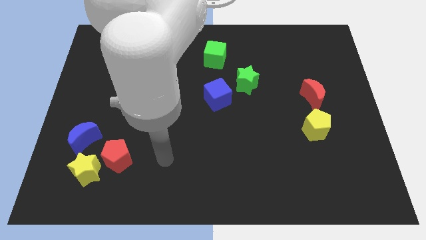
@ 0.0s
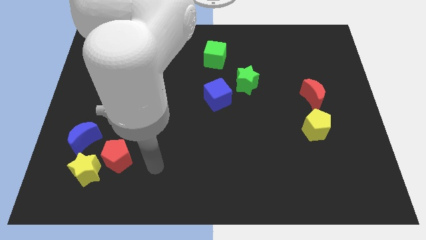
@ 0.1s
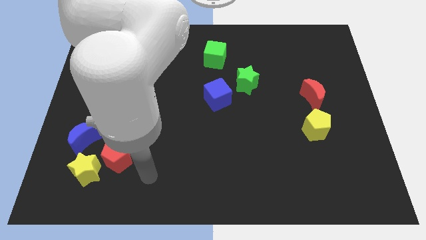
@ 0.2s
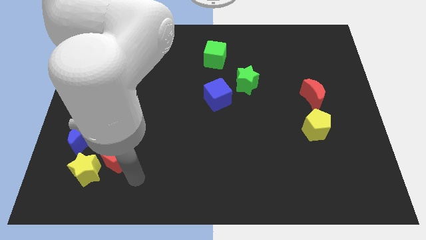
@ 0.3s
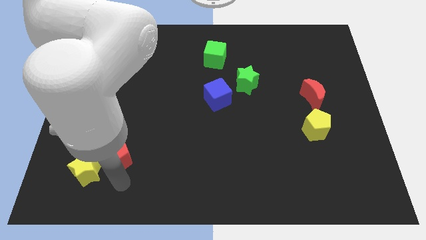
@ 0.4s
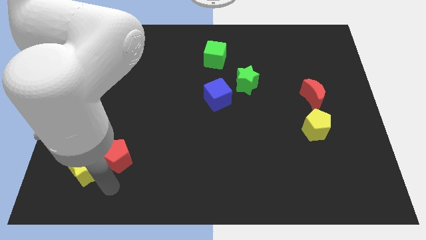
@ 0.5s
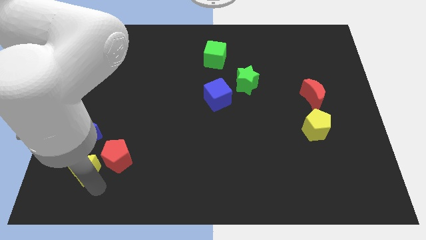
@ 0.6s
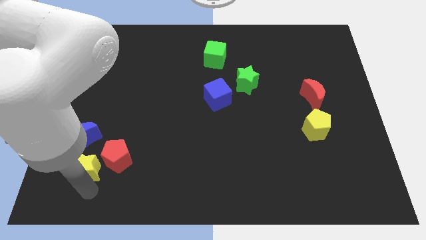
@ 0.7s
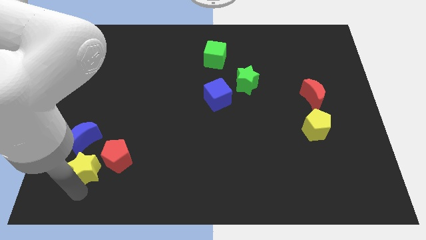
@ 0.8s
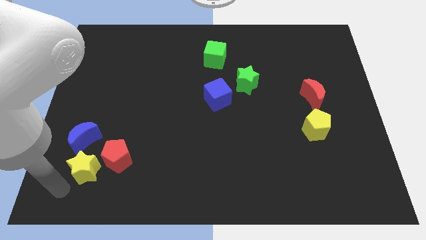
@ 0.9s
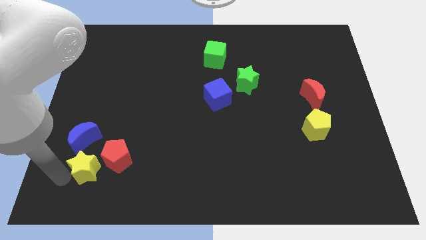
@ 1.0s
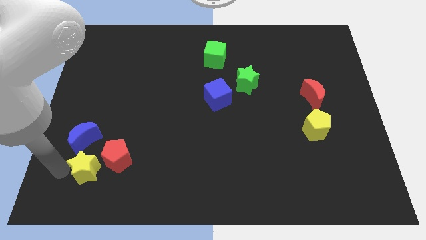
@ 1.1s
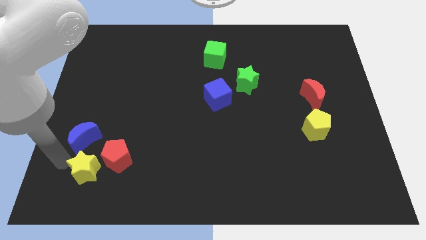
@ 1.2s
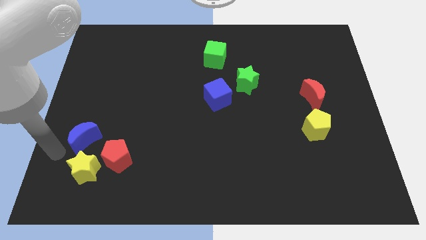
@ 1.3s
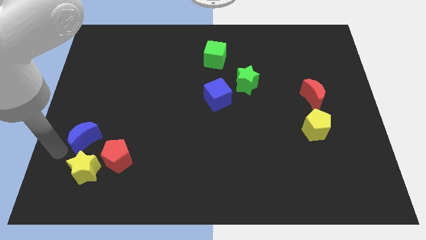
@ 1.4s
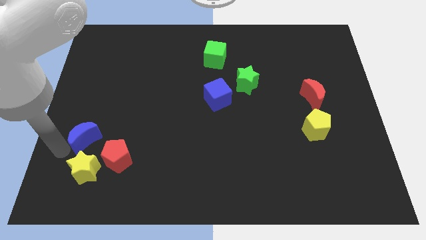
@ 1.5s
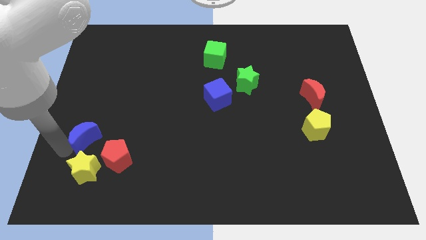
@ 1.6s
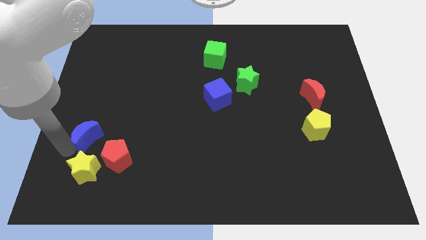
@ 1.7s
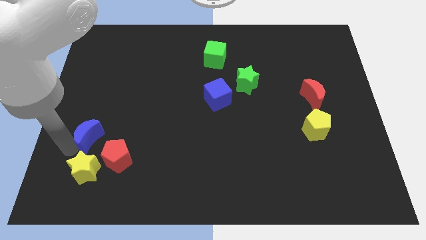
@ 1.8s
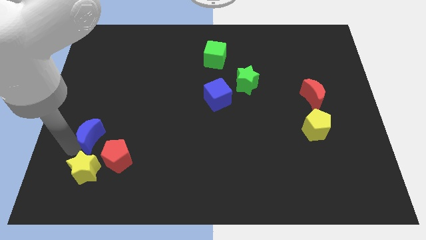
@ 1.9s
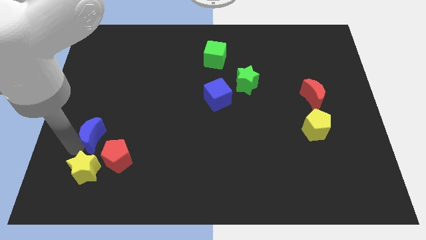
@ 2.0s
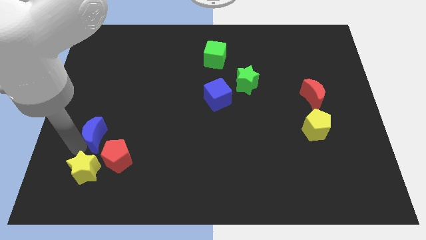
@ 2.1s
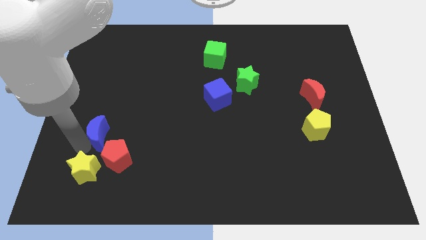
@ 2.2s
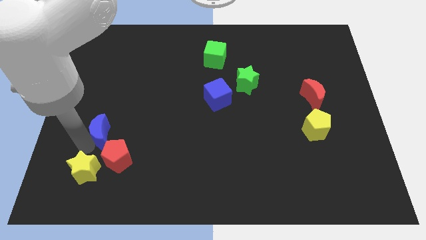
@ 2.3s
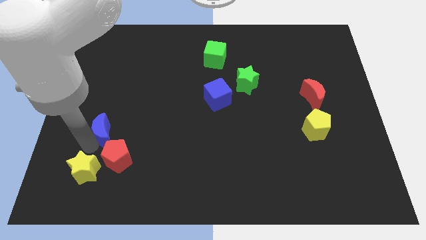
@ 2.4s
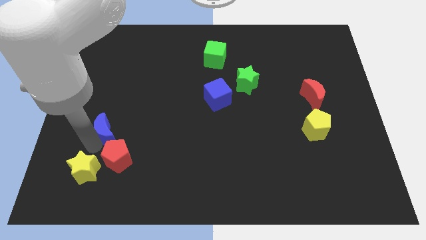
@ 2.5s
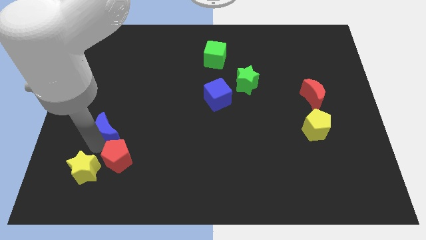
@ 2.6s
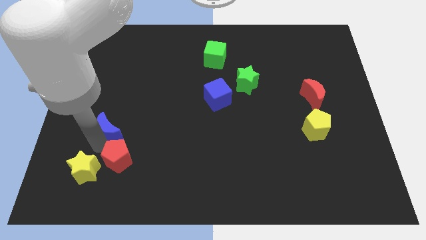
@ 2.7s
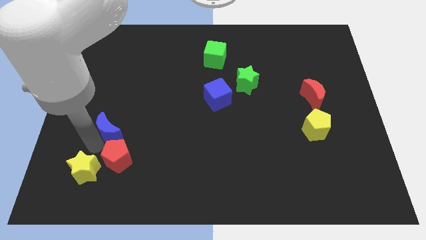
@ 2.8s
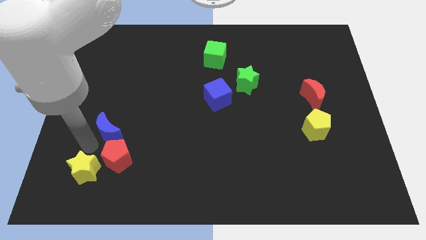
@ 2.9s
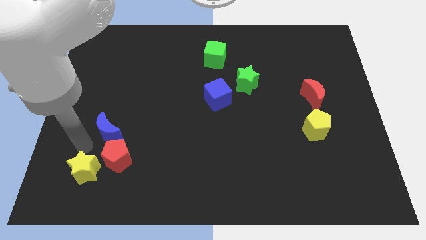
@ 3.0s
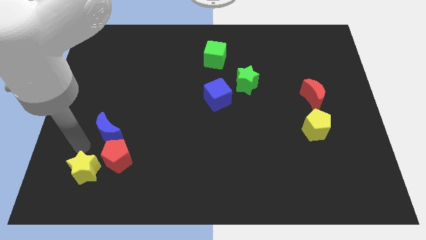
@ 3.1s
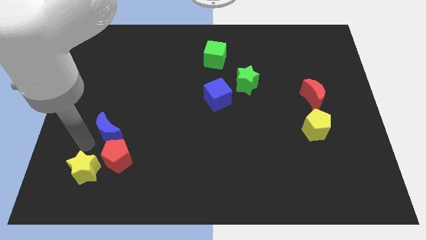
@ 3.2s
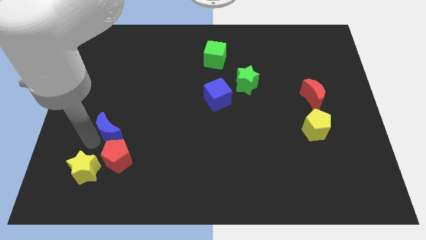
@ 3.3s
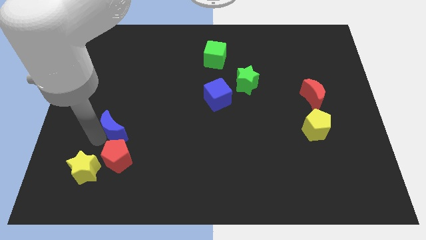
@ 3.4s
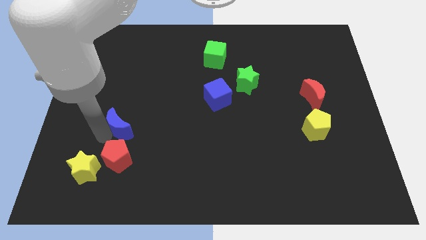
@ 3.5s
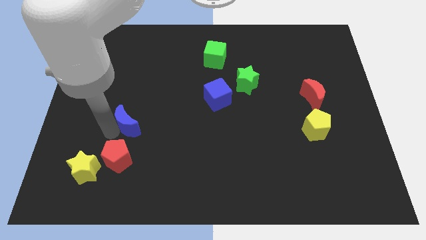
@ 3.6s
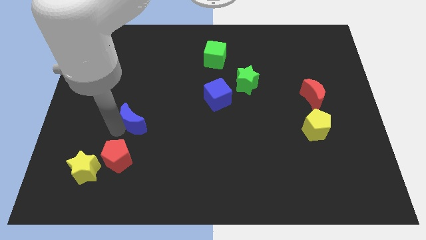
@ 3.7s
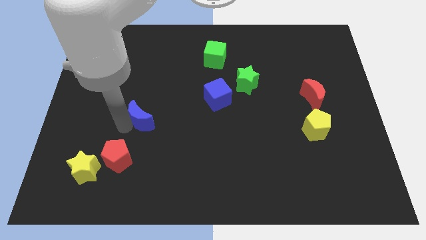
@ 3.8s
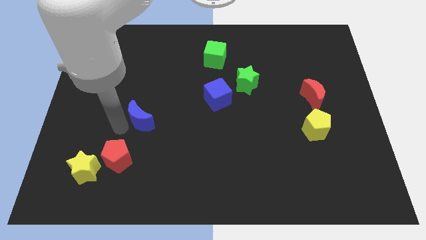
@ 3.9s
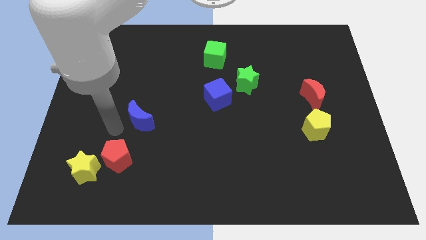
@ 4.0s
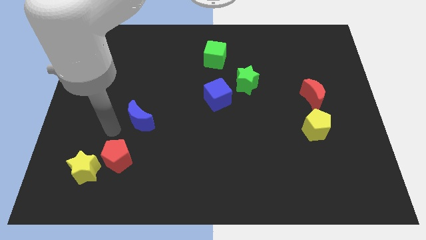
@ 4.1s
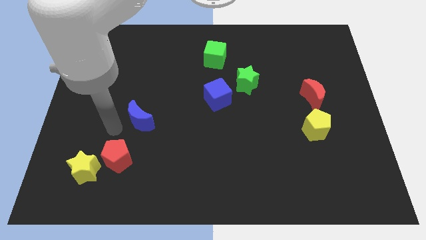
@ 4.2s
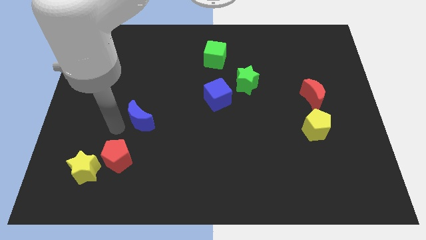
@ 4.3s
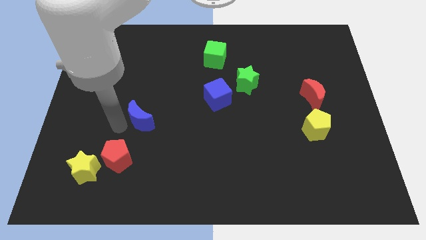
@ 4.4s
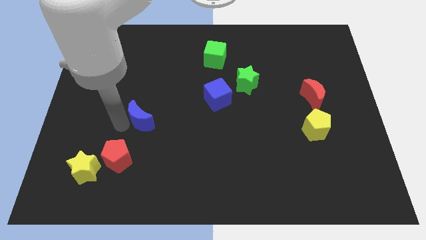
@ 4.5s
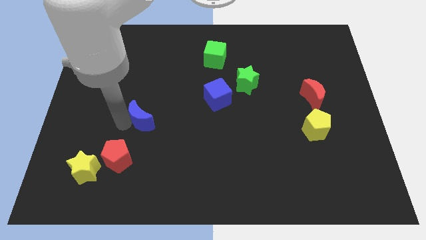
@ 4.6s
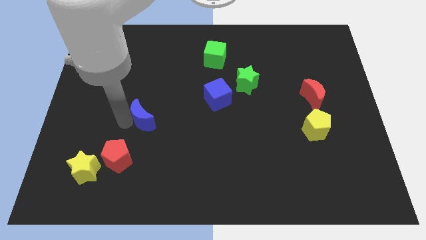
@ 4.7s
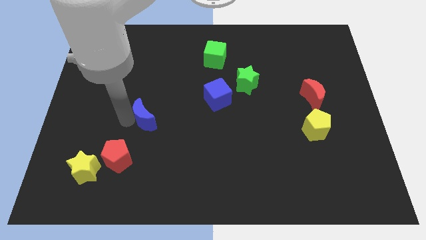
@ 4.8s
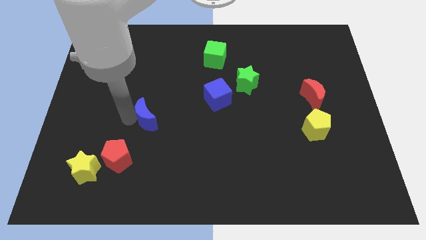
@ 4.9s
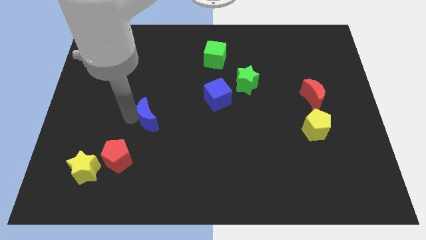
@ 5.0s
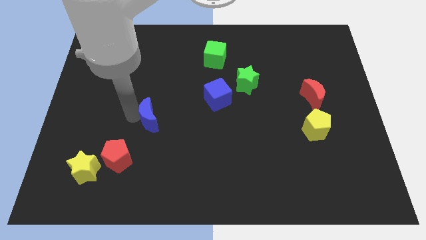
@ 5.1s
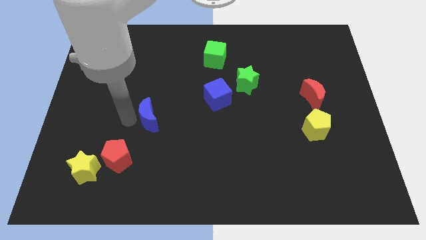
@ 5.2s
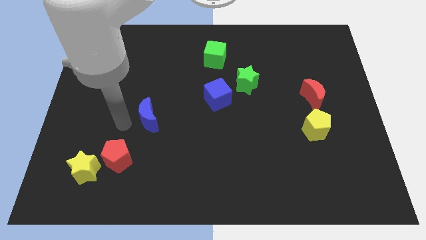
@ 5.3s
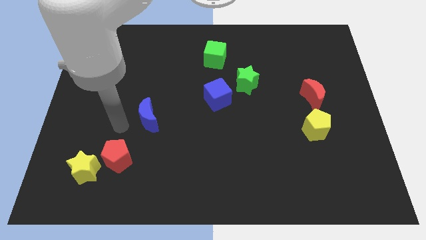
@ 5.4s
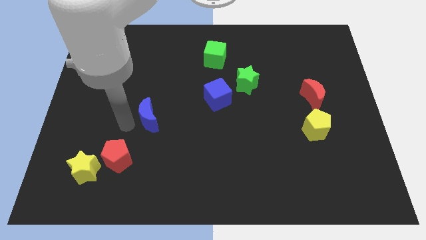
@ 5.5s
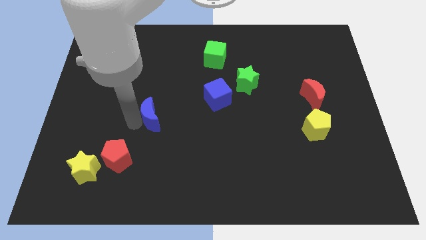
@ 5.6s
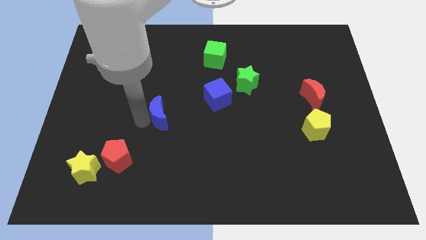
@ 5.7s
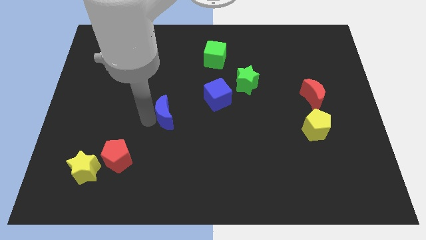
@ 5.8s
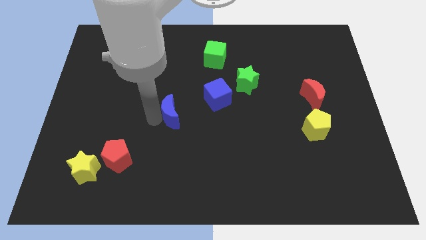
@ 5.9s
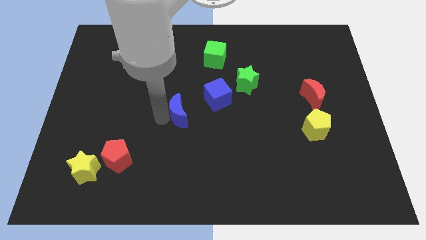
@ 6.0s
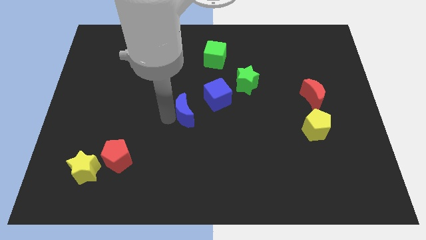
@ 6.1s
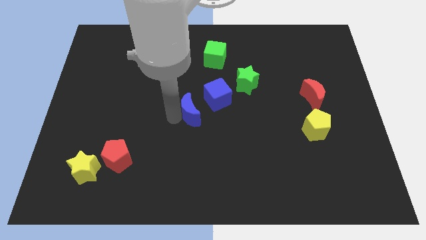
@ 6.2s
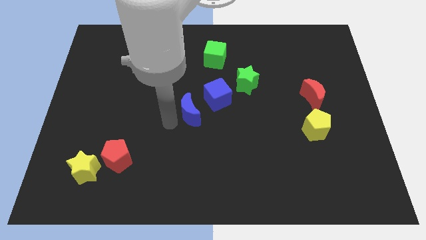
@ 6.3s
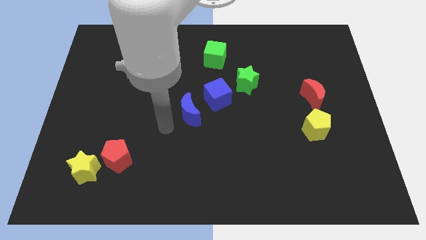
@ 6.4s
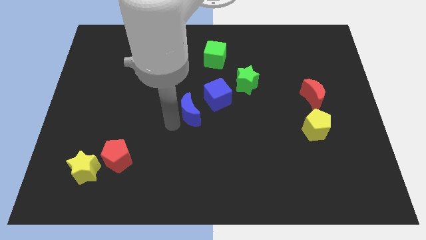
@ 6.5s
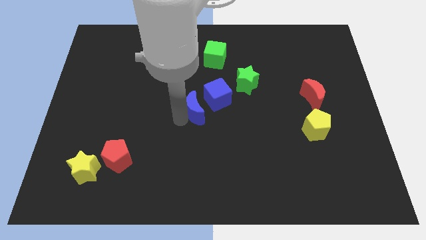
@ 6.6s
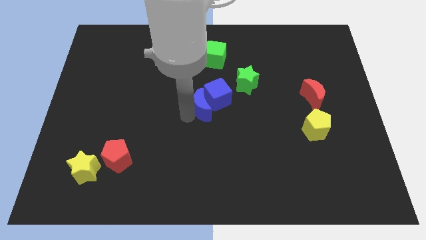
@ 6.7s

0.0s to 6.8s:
push the blue moon close to the blue cube

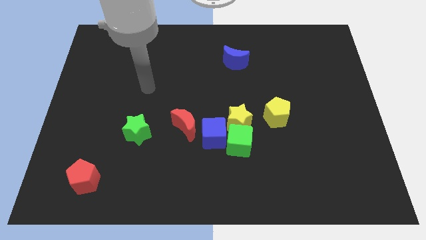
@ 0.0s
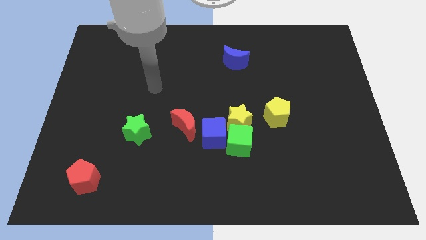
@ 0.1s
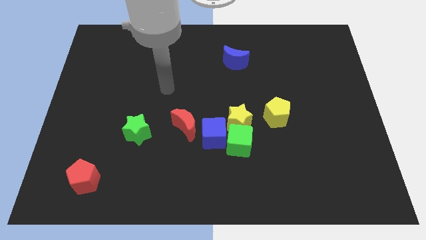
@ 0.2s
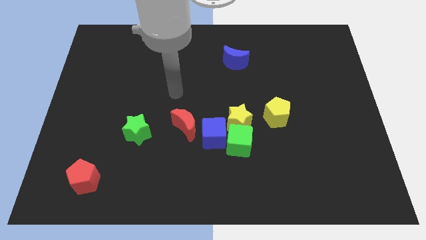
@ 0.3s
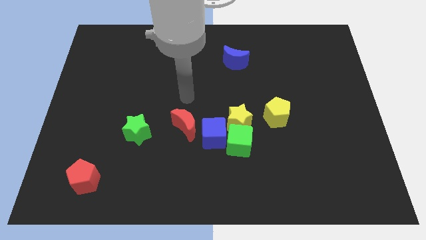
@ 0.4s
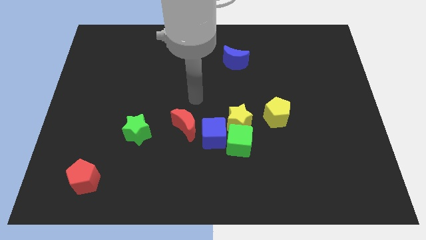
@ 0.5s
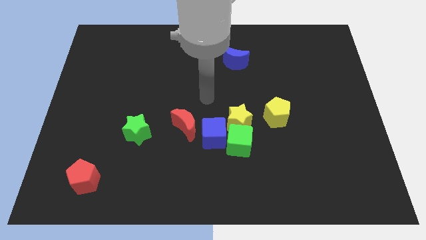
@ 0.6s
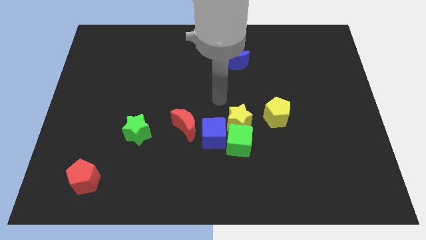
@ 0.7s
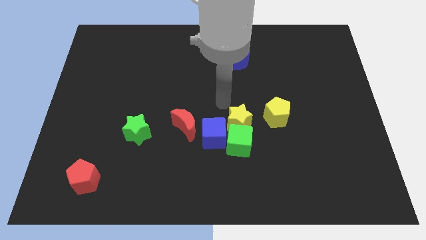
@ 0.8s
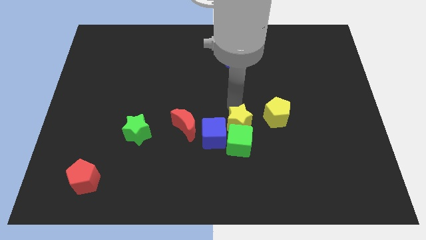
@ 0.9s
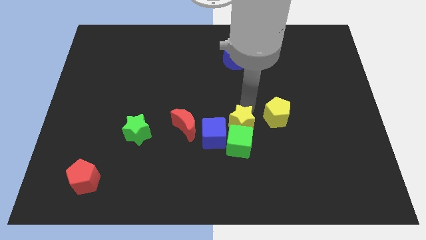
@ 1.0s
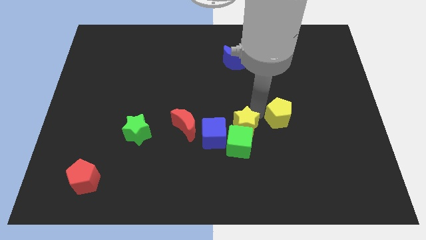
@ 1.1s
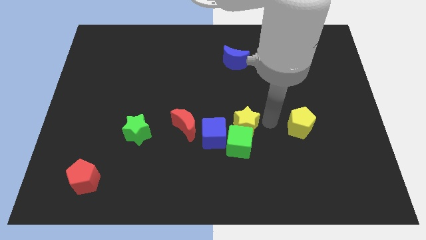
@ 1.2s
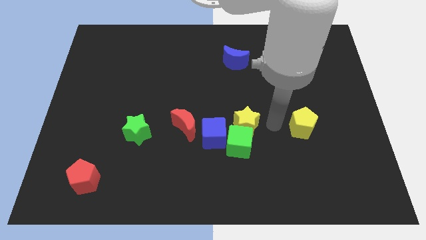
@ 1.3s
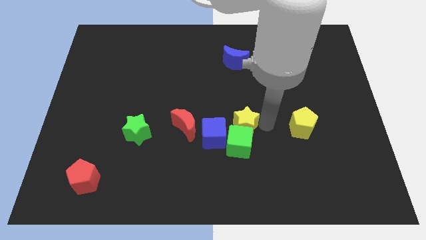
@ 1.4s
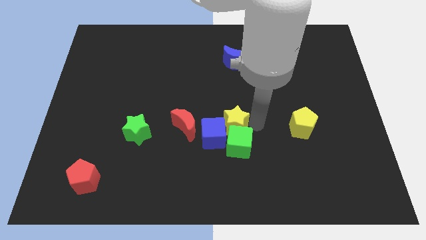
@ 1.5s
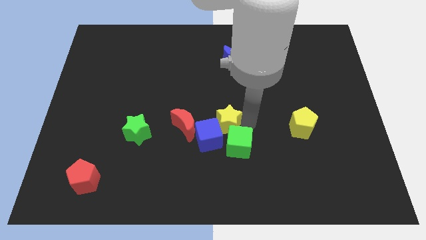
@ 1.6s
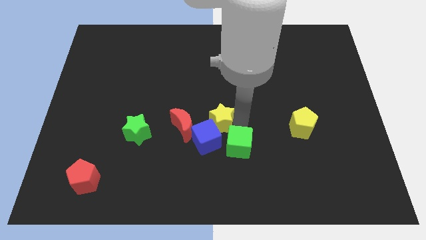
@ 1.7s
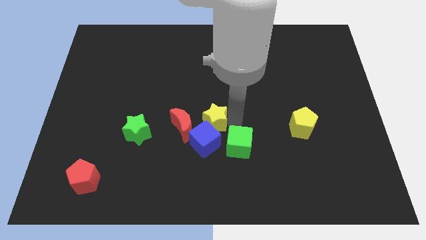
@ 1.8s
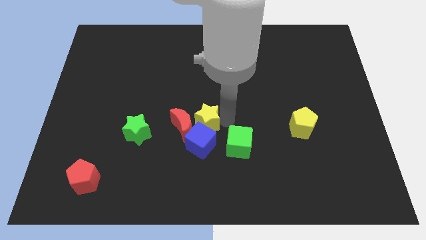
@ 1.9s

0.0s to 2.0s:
slide the yellow star towards the red moon
